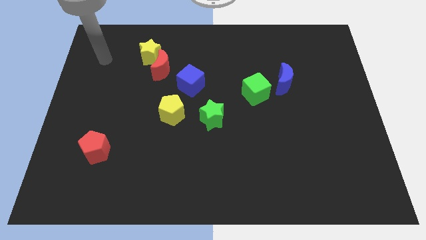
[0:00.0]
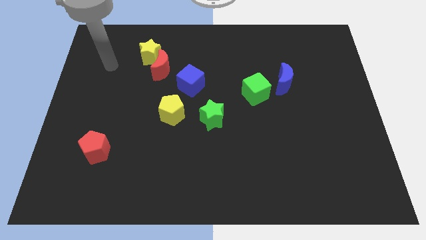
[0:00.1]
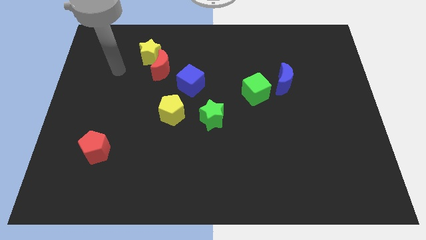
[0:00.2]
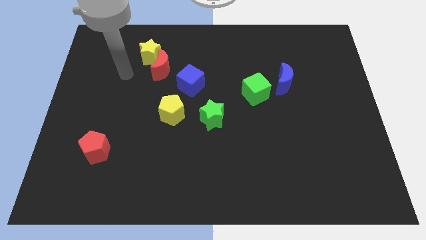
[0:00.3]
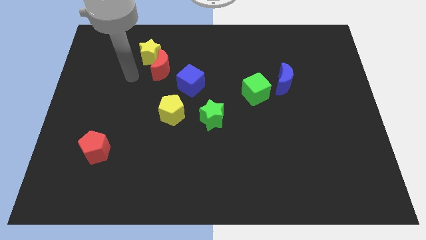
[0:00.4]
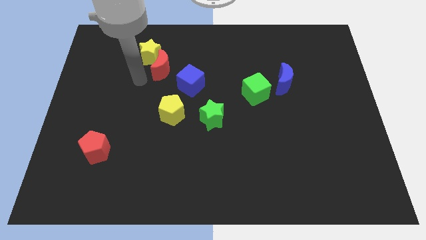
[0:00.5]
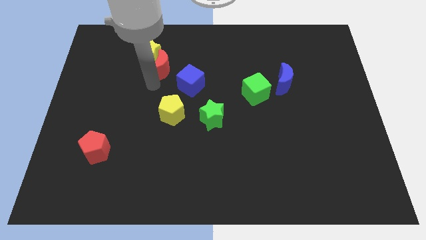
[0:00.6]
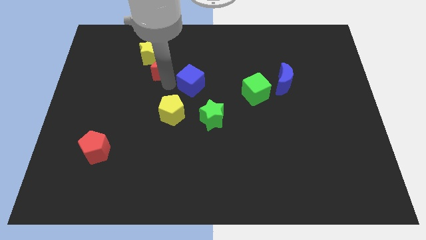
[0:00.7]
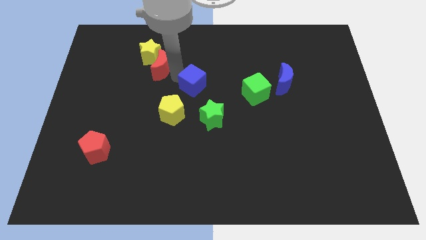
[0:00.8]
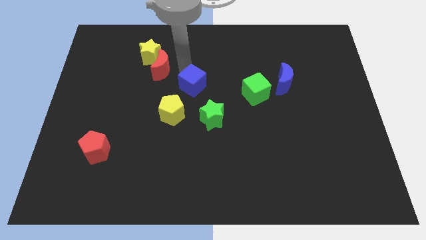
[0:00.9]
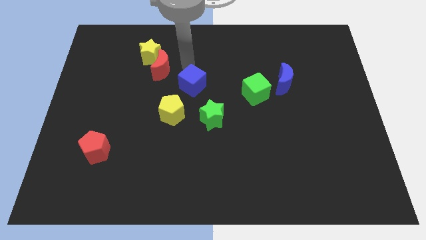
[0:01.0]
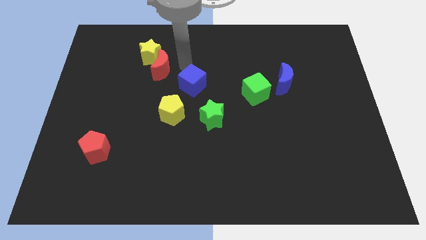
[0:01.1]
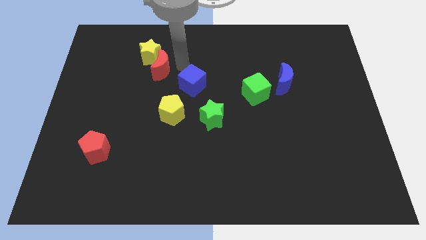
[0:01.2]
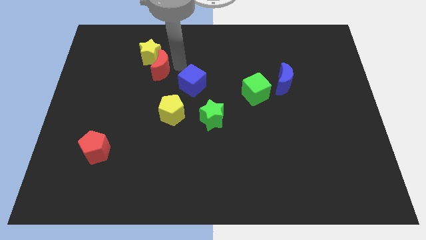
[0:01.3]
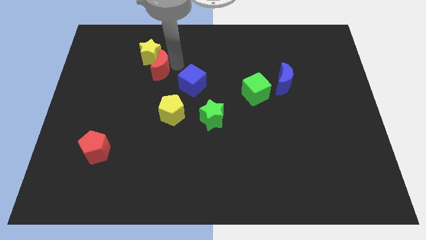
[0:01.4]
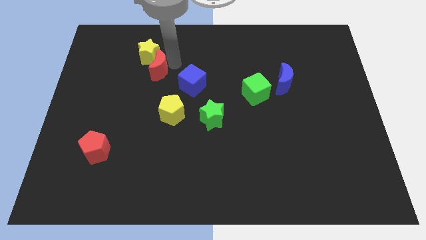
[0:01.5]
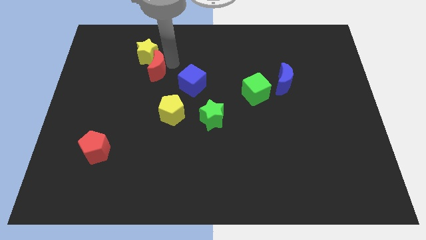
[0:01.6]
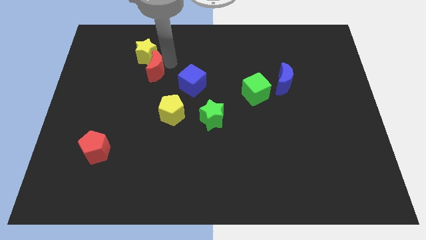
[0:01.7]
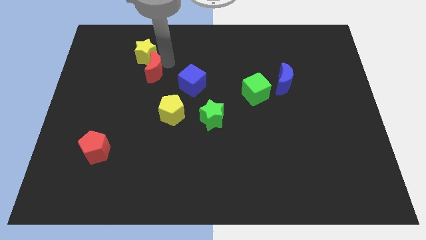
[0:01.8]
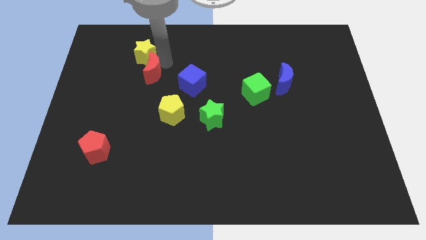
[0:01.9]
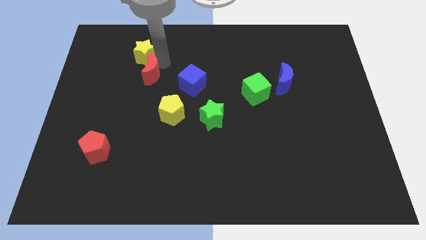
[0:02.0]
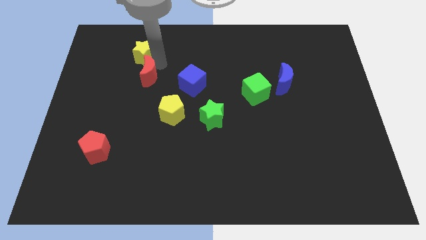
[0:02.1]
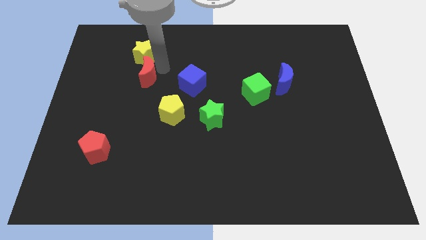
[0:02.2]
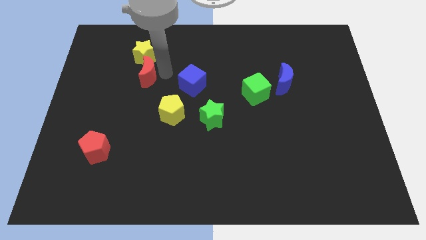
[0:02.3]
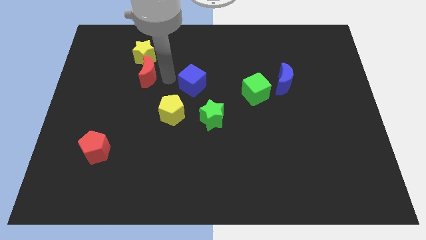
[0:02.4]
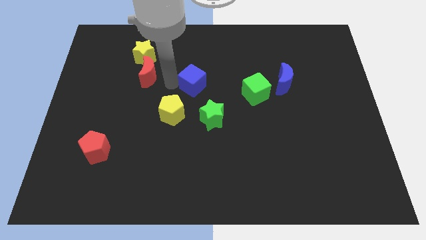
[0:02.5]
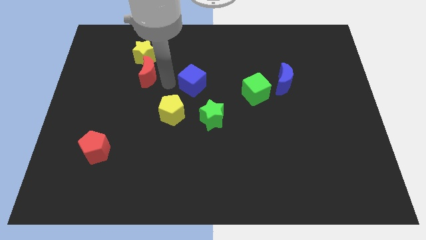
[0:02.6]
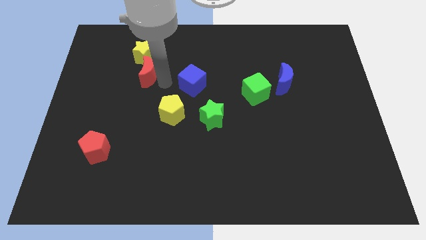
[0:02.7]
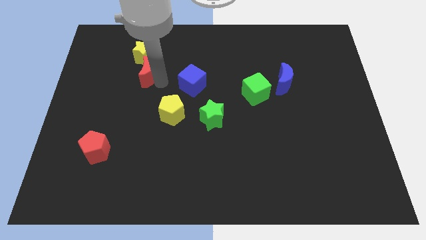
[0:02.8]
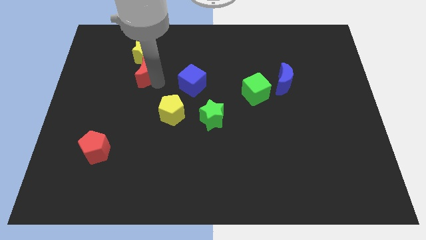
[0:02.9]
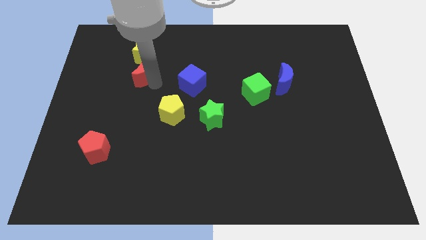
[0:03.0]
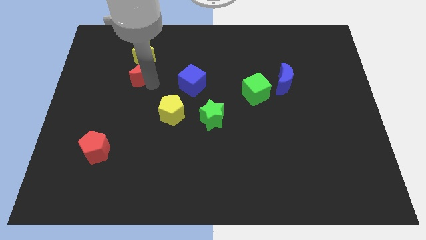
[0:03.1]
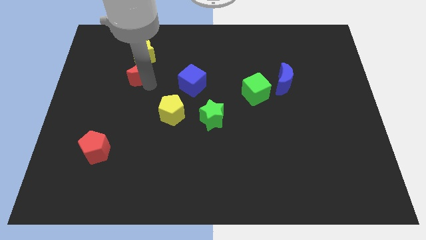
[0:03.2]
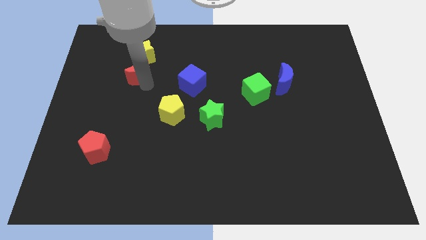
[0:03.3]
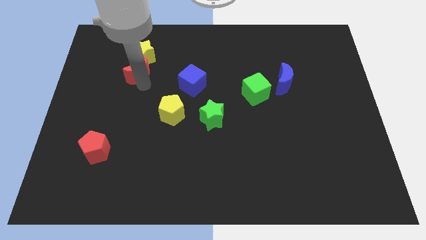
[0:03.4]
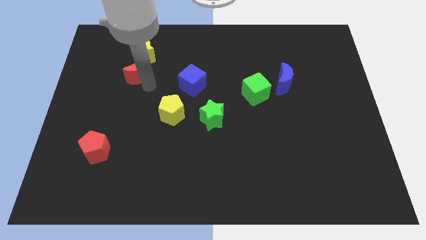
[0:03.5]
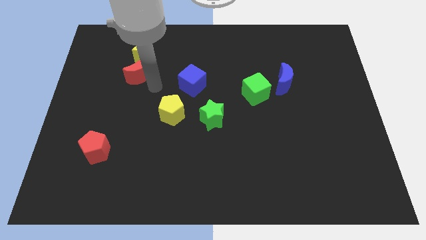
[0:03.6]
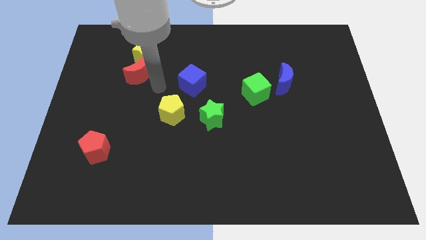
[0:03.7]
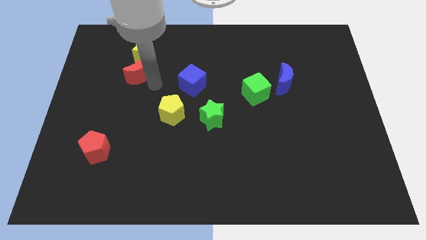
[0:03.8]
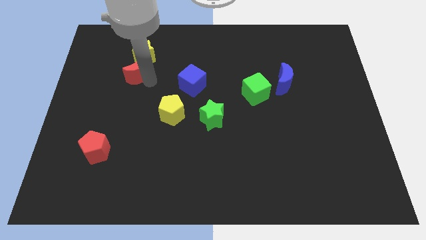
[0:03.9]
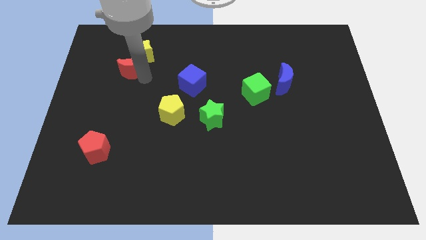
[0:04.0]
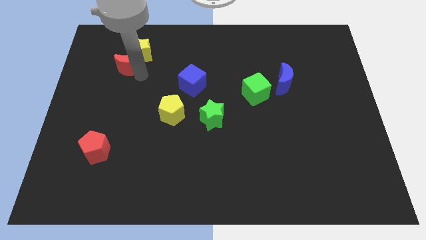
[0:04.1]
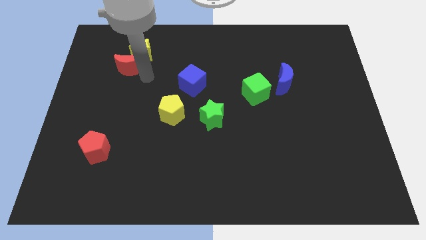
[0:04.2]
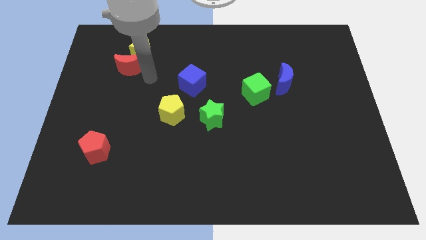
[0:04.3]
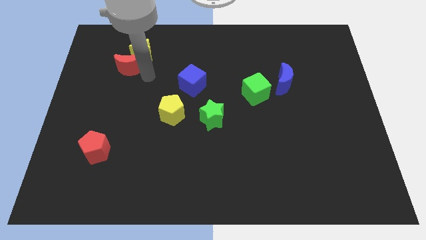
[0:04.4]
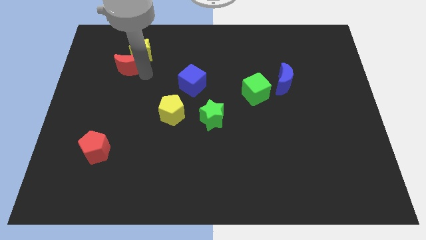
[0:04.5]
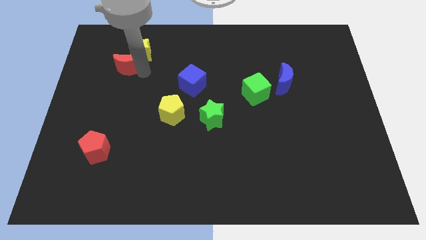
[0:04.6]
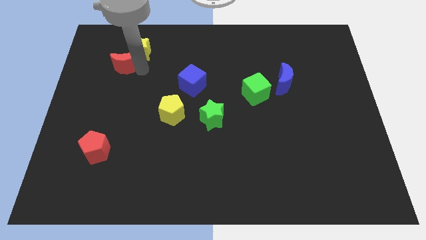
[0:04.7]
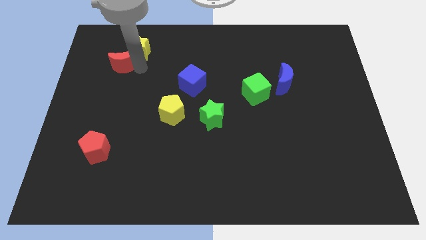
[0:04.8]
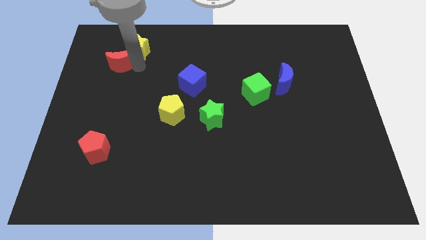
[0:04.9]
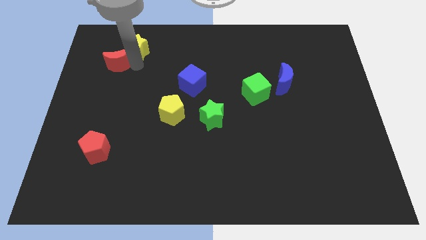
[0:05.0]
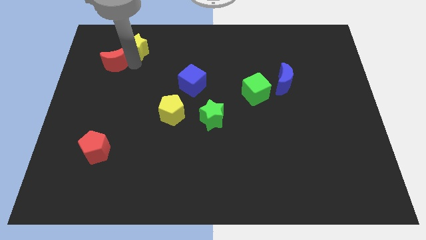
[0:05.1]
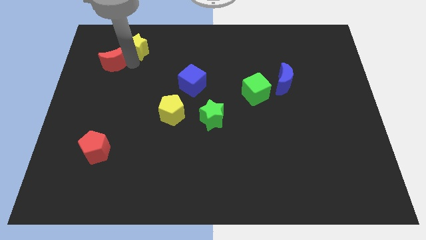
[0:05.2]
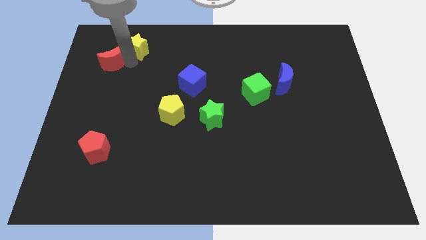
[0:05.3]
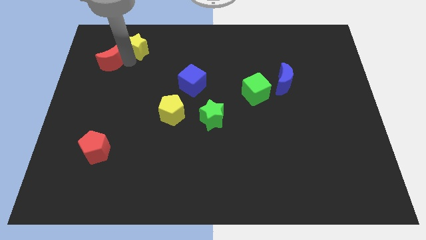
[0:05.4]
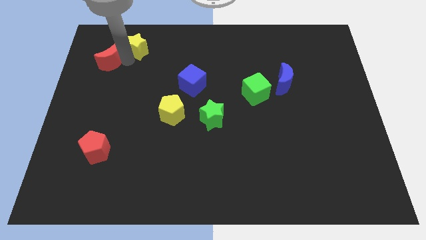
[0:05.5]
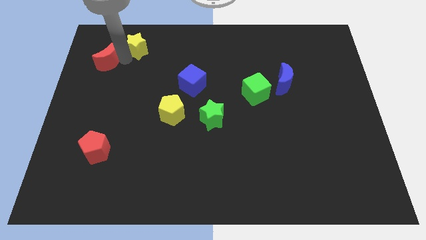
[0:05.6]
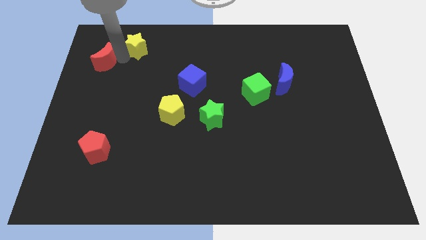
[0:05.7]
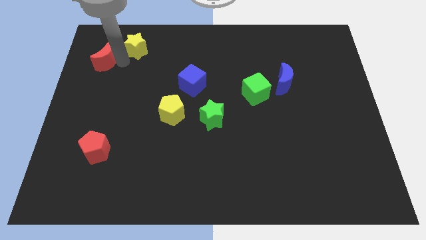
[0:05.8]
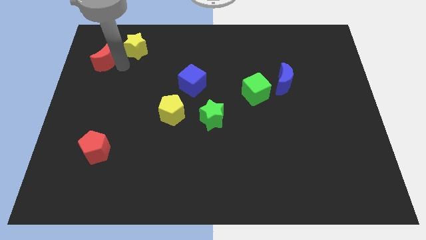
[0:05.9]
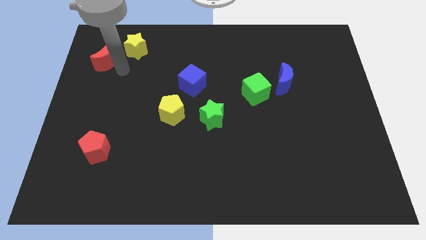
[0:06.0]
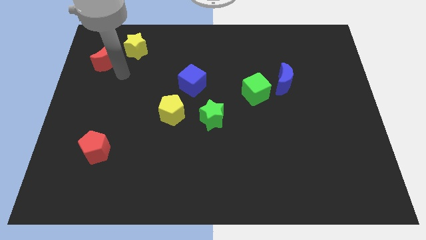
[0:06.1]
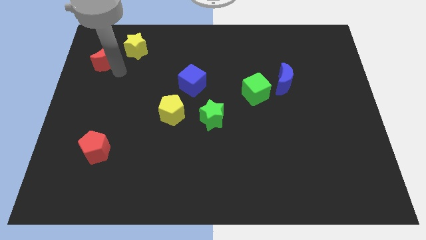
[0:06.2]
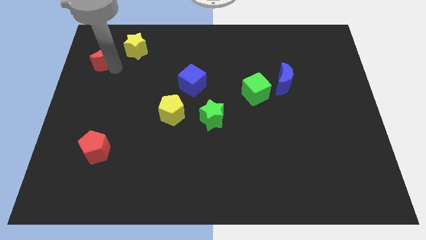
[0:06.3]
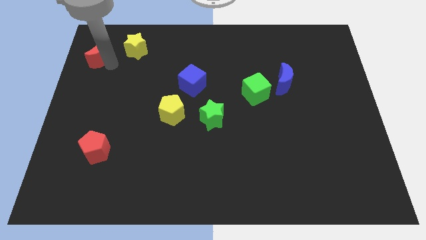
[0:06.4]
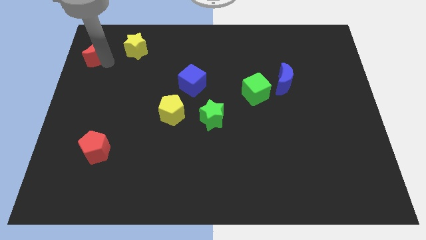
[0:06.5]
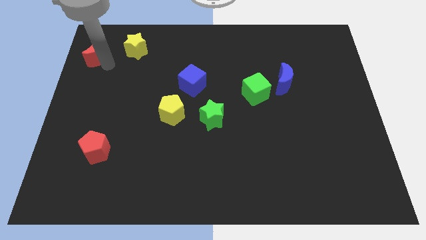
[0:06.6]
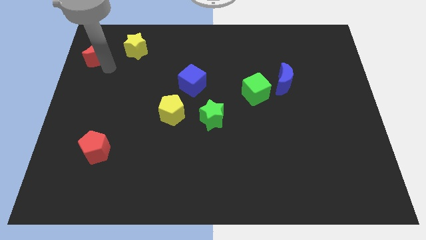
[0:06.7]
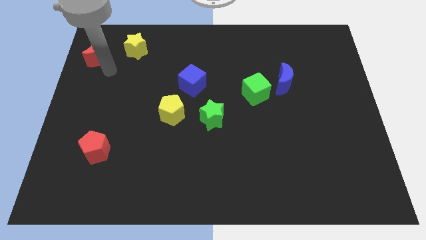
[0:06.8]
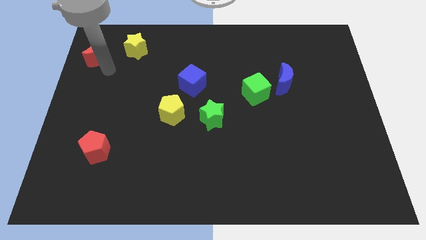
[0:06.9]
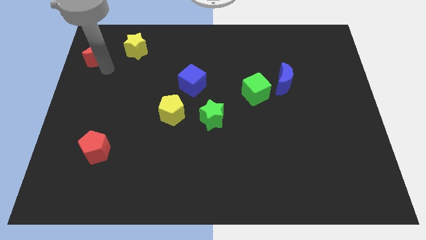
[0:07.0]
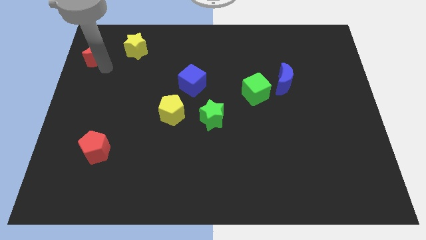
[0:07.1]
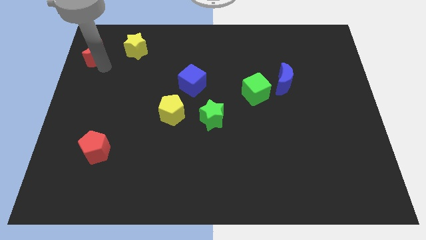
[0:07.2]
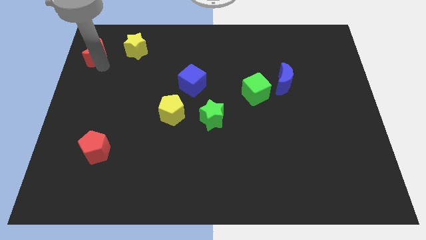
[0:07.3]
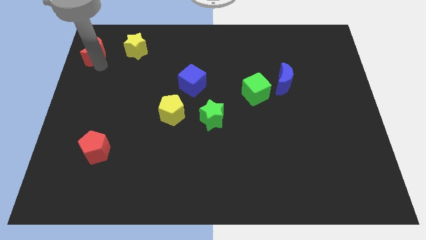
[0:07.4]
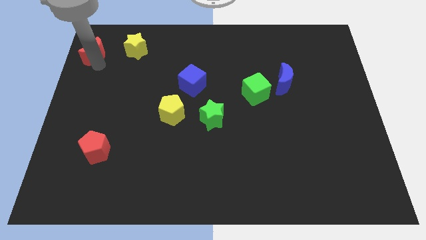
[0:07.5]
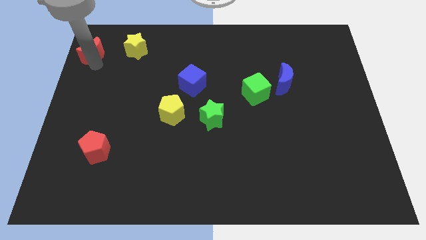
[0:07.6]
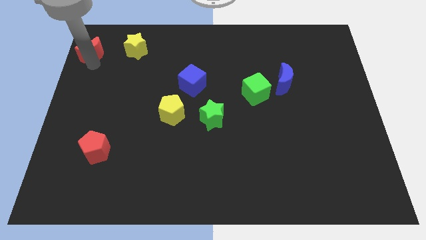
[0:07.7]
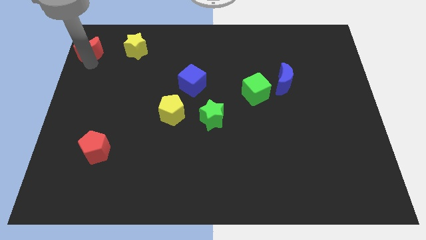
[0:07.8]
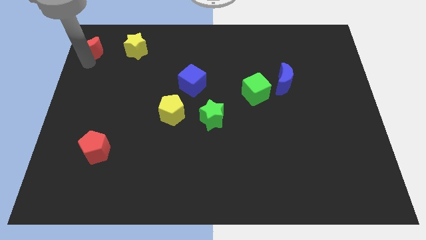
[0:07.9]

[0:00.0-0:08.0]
push the red moon to the top left
